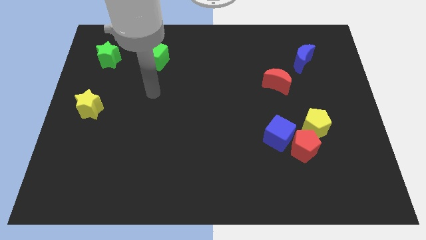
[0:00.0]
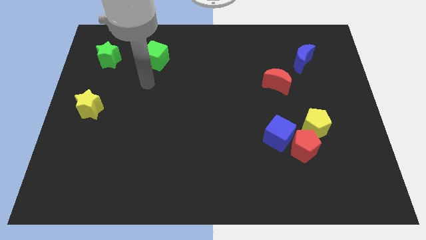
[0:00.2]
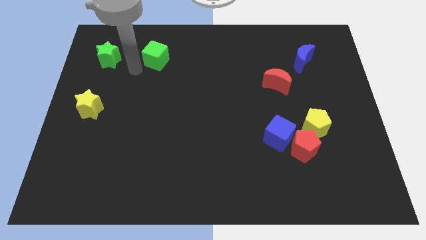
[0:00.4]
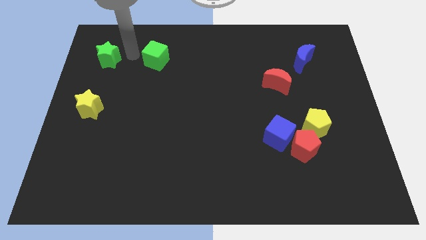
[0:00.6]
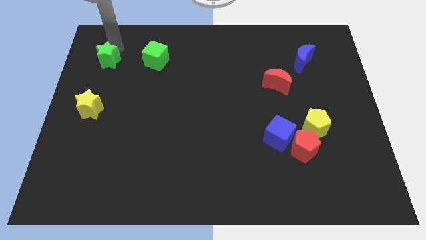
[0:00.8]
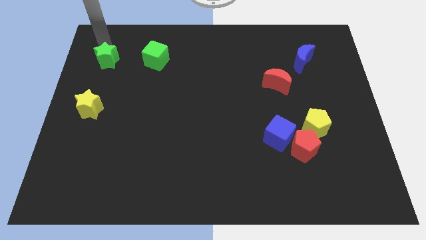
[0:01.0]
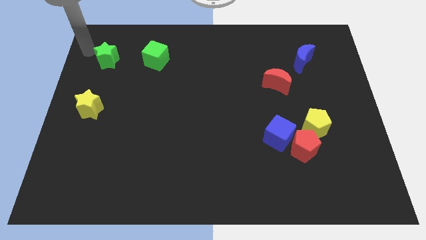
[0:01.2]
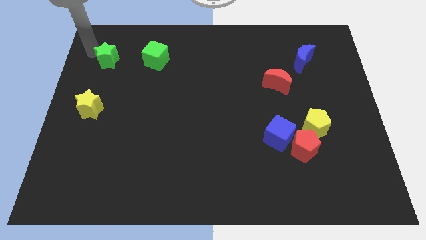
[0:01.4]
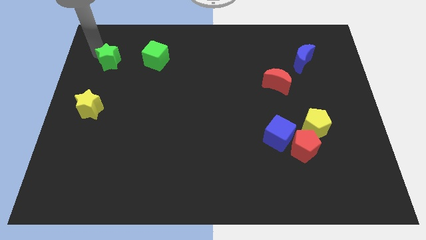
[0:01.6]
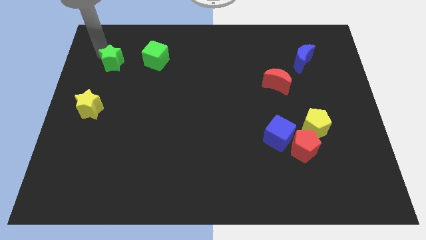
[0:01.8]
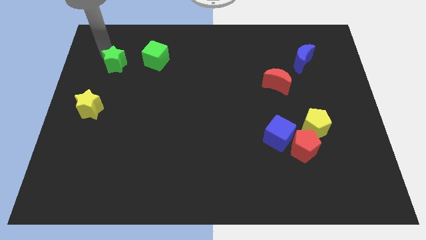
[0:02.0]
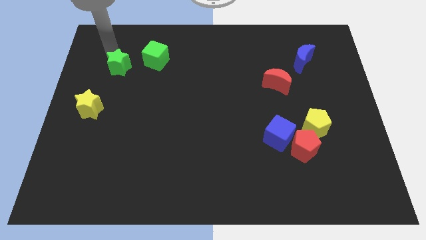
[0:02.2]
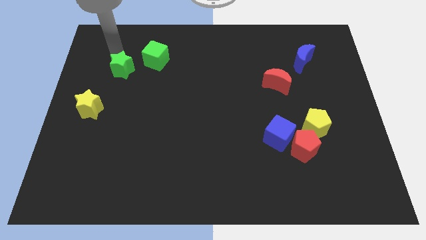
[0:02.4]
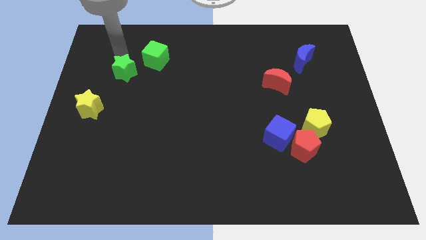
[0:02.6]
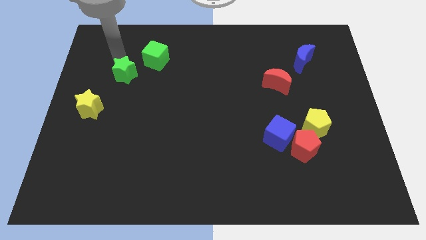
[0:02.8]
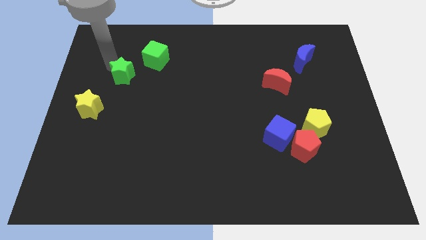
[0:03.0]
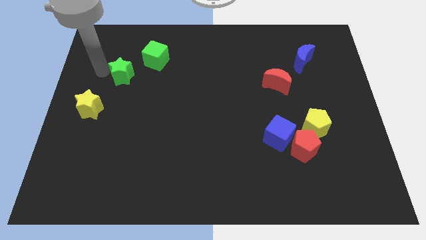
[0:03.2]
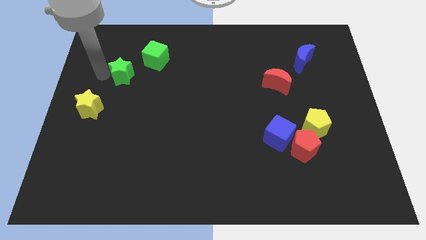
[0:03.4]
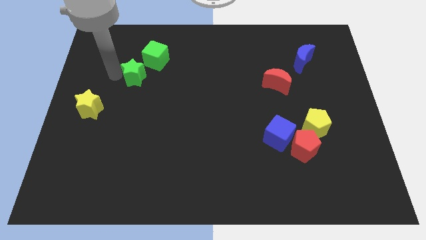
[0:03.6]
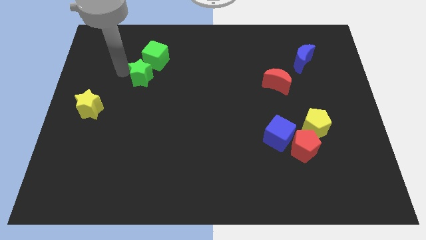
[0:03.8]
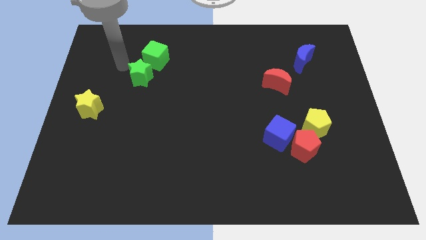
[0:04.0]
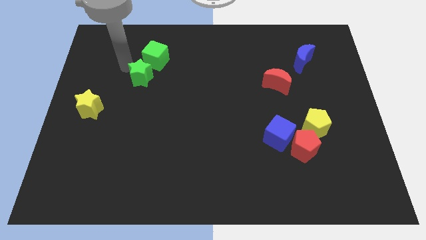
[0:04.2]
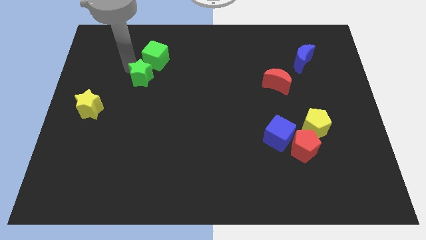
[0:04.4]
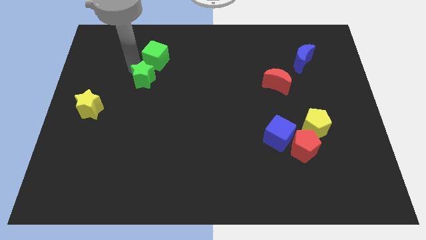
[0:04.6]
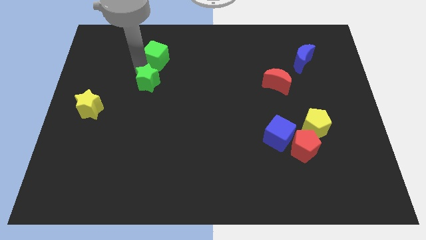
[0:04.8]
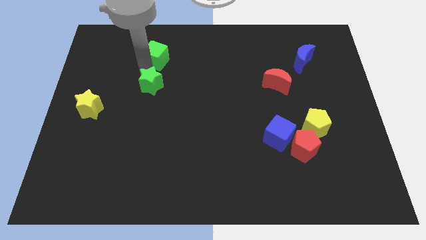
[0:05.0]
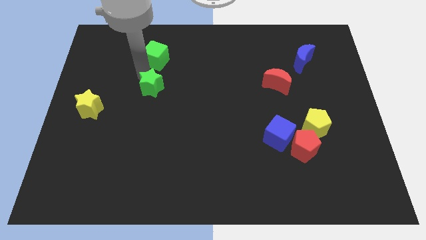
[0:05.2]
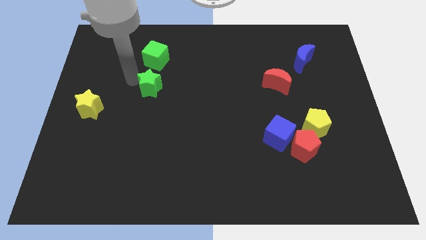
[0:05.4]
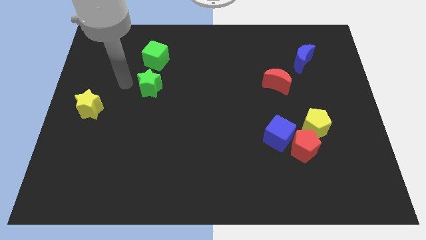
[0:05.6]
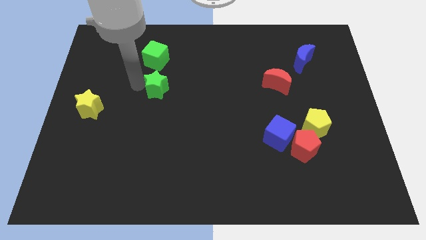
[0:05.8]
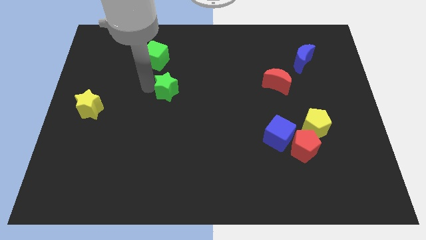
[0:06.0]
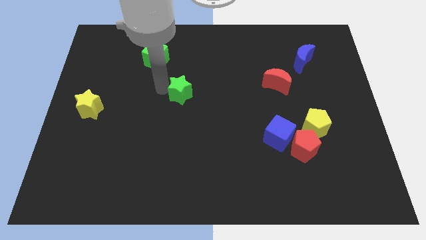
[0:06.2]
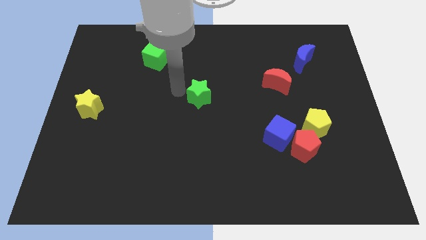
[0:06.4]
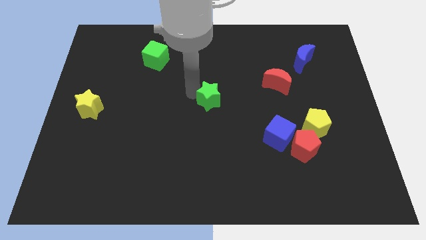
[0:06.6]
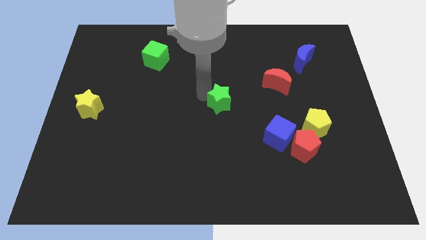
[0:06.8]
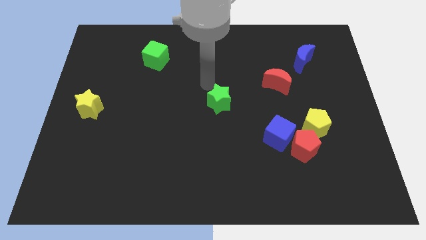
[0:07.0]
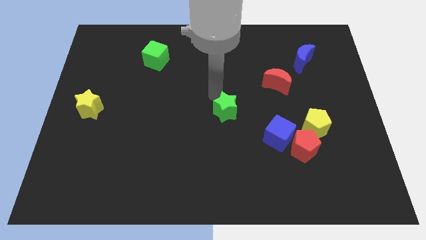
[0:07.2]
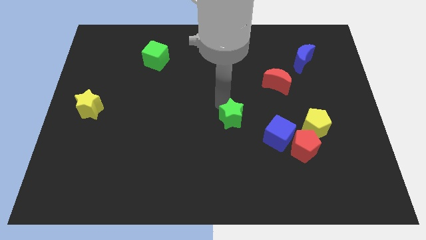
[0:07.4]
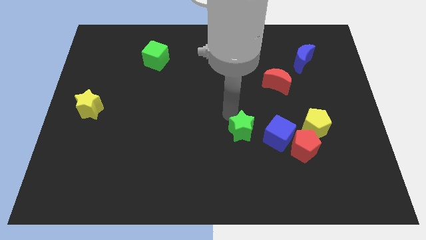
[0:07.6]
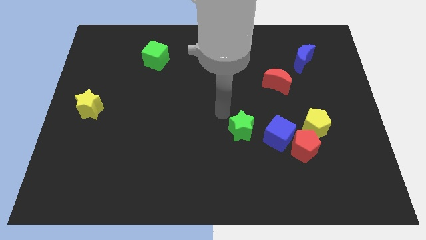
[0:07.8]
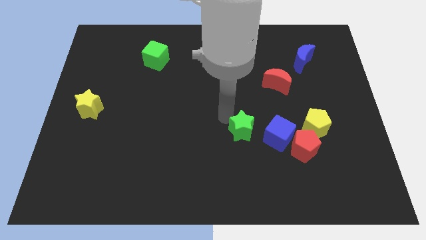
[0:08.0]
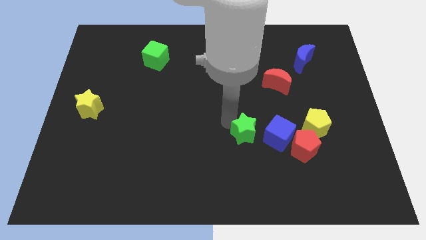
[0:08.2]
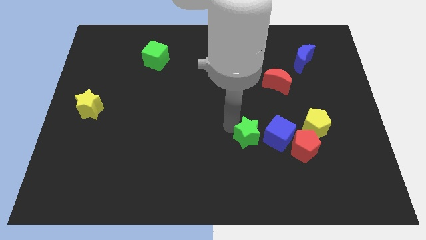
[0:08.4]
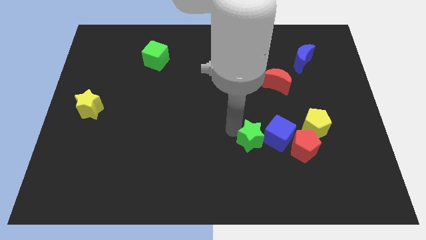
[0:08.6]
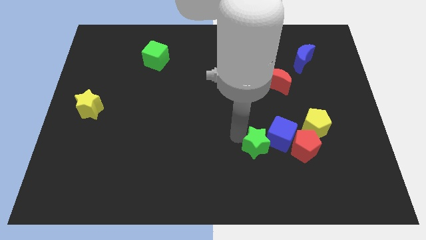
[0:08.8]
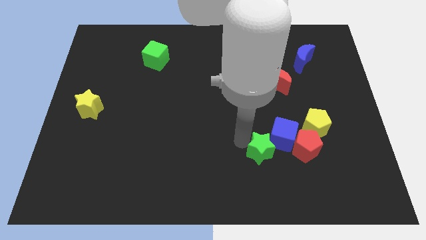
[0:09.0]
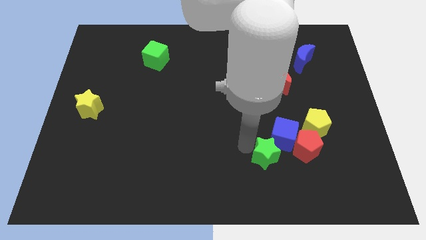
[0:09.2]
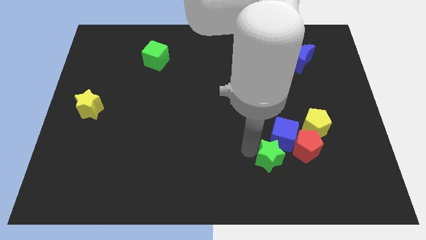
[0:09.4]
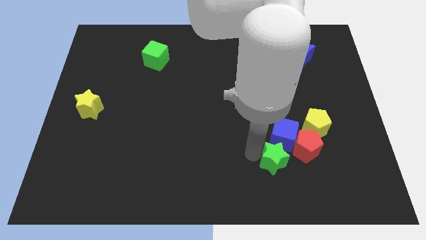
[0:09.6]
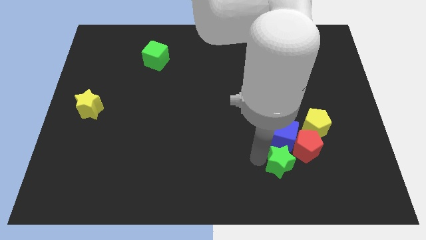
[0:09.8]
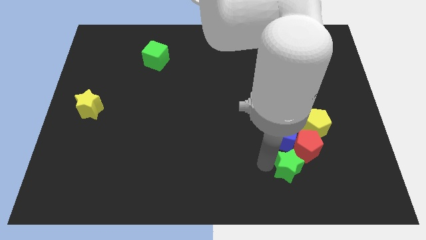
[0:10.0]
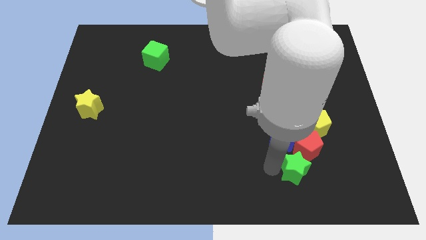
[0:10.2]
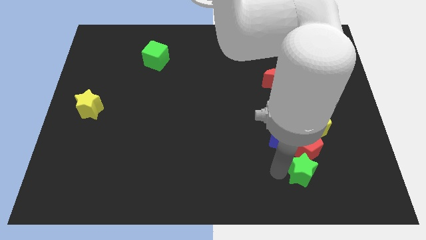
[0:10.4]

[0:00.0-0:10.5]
move the green star to the bottom of the yellow pentagon

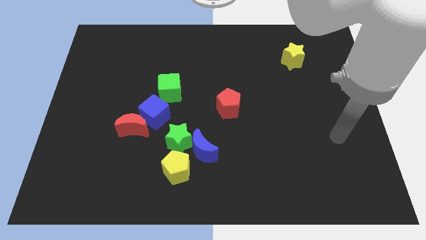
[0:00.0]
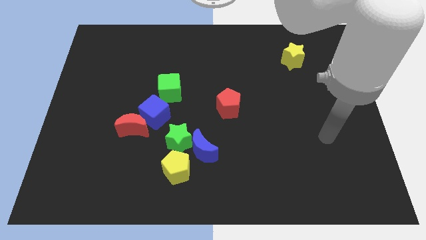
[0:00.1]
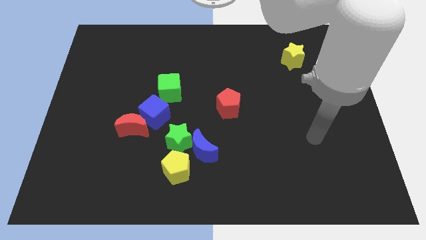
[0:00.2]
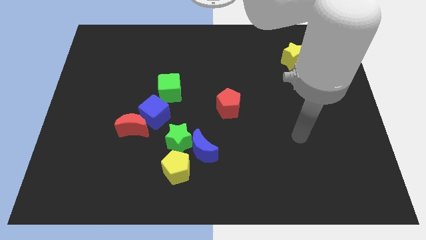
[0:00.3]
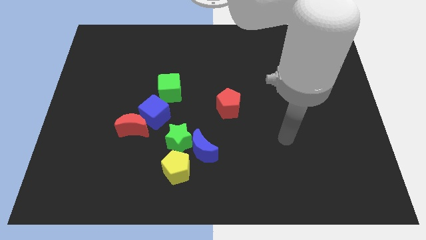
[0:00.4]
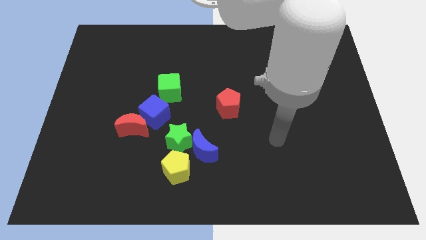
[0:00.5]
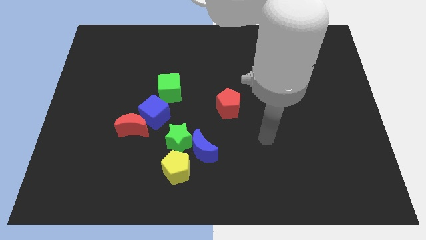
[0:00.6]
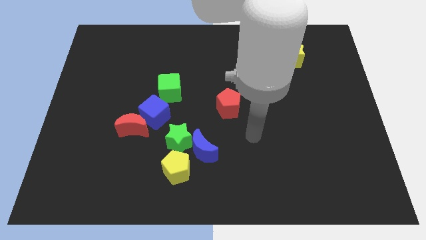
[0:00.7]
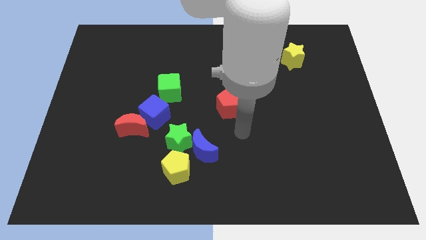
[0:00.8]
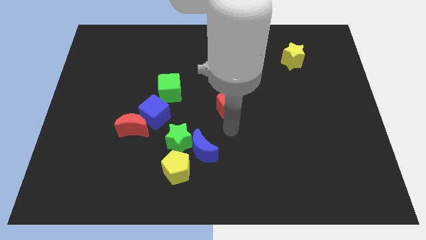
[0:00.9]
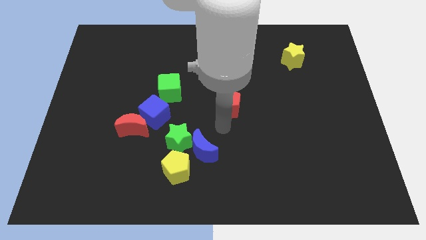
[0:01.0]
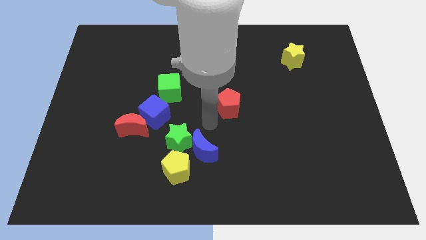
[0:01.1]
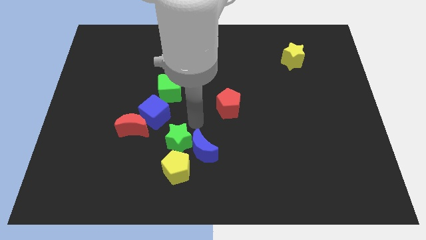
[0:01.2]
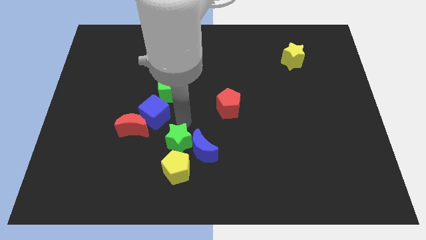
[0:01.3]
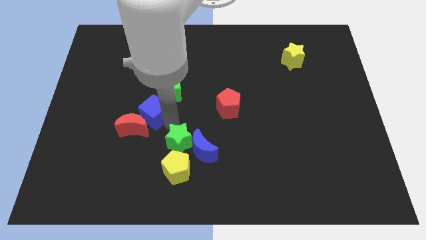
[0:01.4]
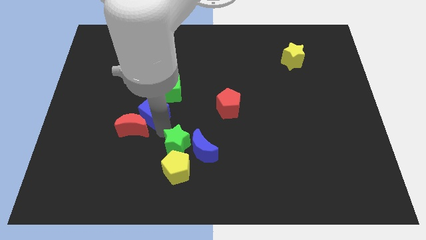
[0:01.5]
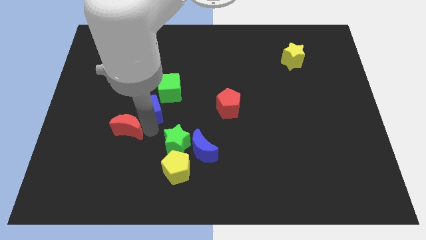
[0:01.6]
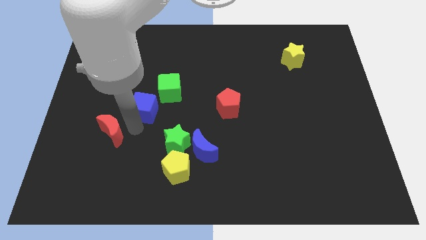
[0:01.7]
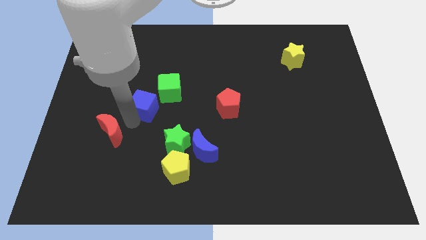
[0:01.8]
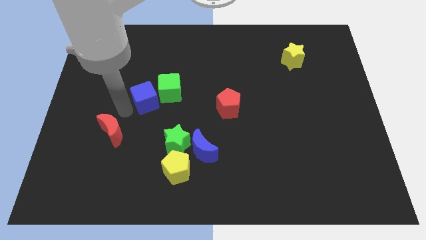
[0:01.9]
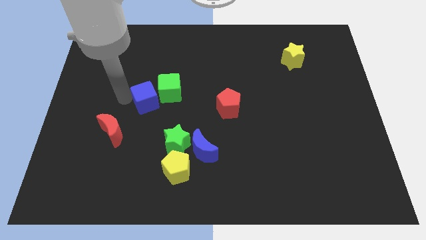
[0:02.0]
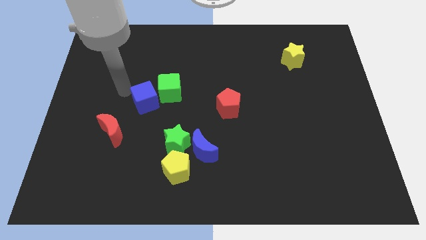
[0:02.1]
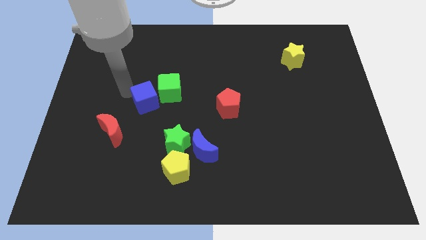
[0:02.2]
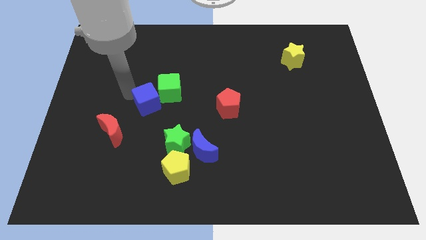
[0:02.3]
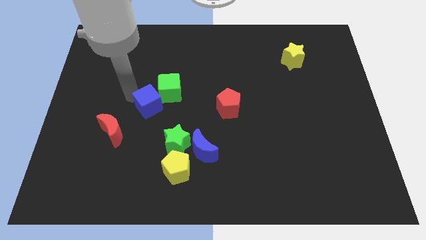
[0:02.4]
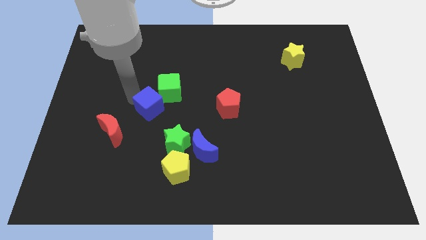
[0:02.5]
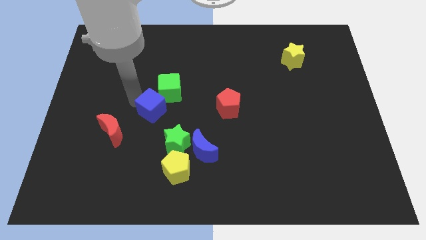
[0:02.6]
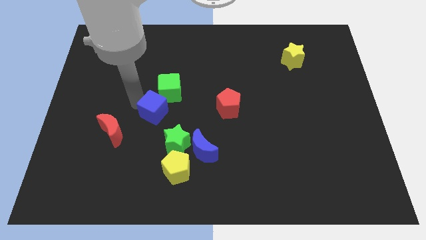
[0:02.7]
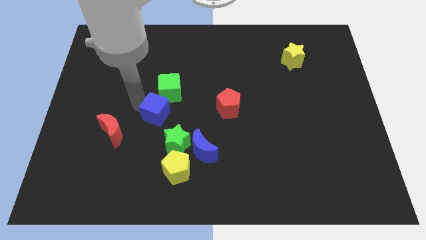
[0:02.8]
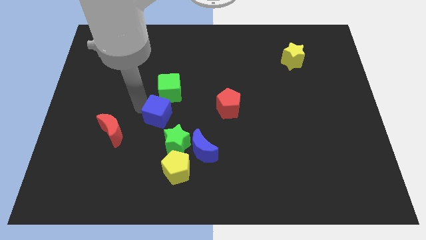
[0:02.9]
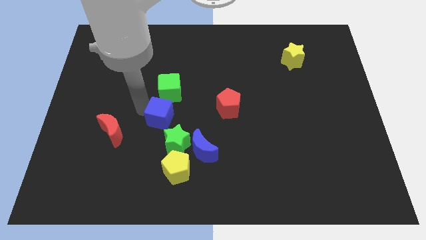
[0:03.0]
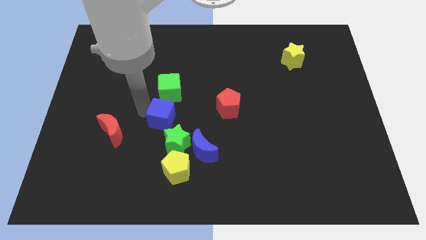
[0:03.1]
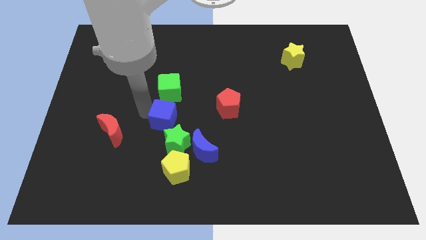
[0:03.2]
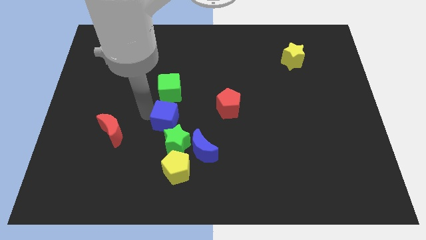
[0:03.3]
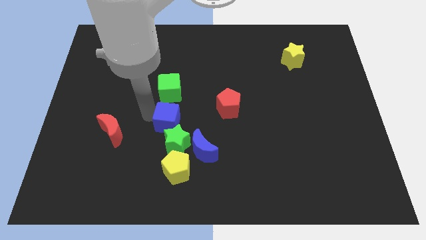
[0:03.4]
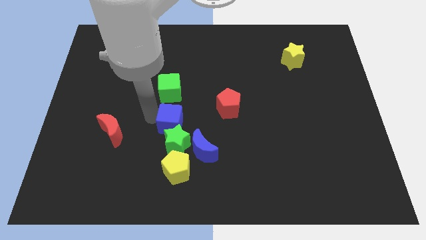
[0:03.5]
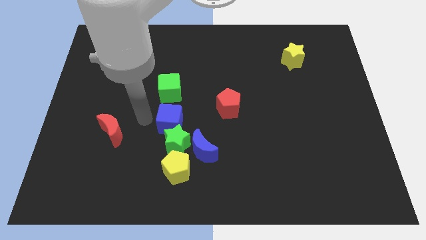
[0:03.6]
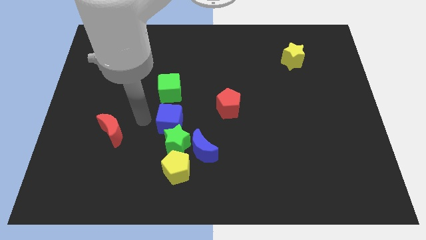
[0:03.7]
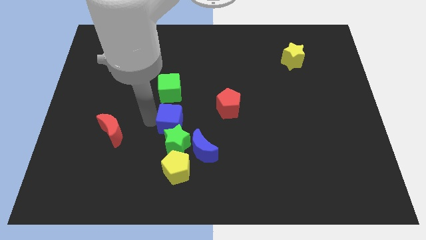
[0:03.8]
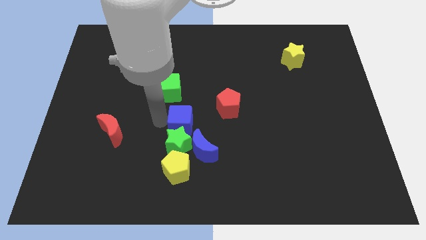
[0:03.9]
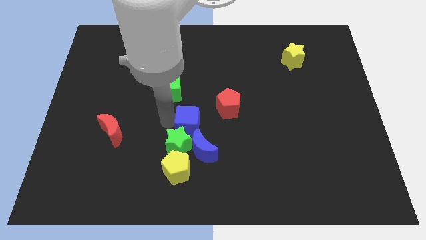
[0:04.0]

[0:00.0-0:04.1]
put the blue cube to the bottom left side of the red pentagon
